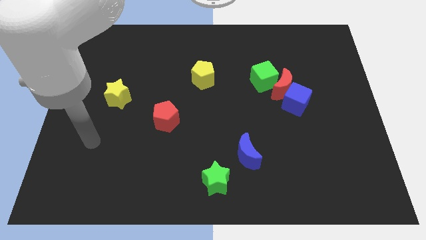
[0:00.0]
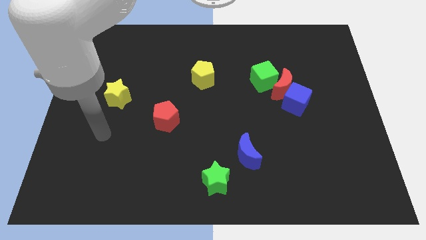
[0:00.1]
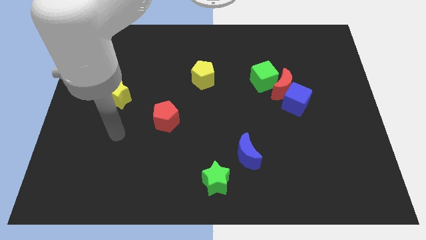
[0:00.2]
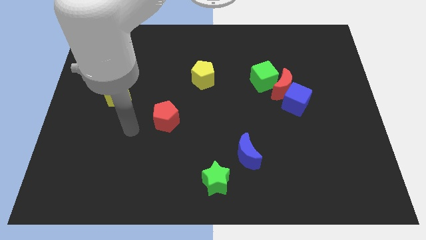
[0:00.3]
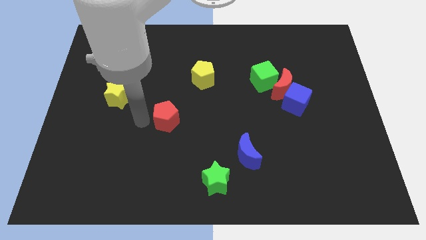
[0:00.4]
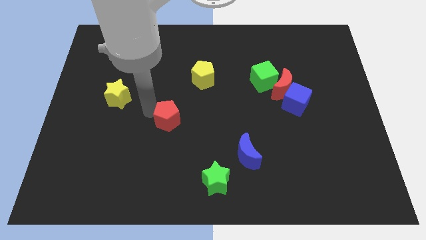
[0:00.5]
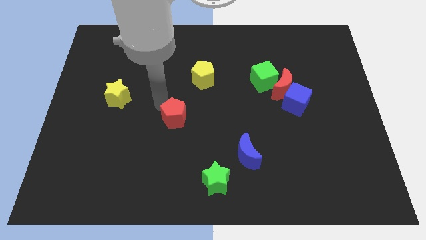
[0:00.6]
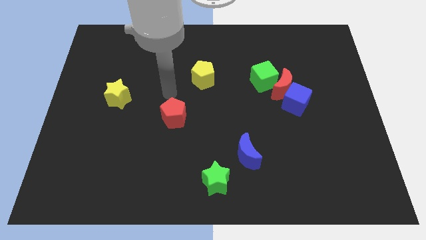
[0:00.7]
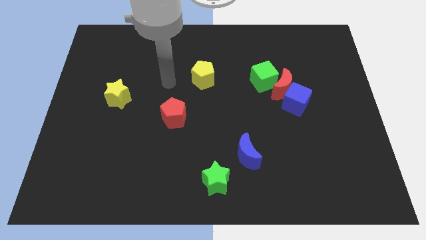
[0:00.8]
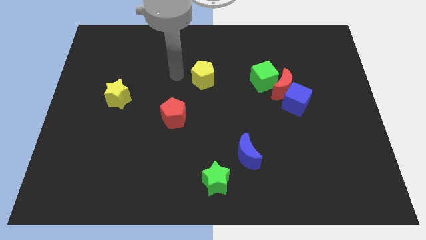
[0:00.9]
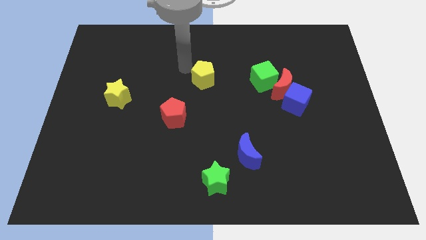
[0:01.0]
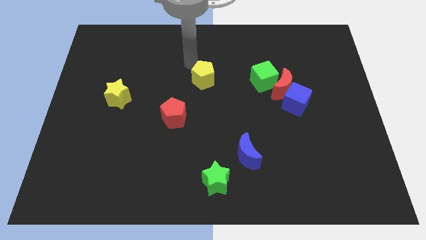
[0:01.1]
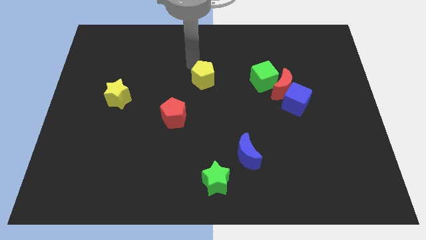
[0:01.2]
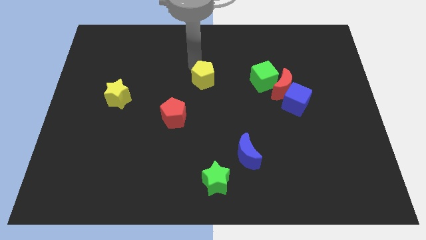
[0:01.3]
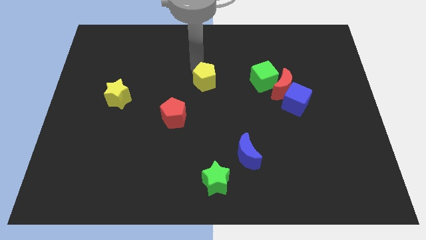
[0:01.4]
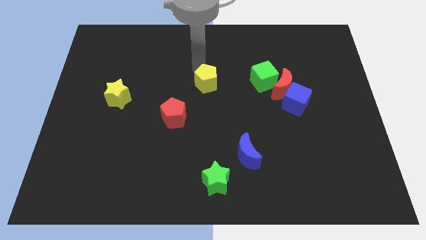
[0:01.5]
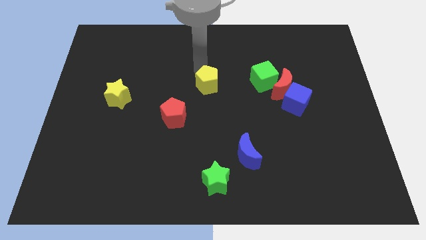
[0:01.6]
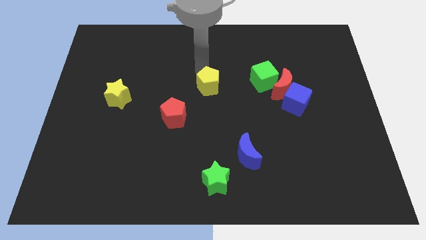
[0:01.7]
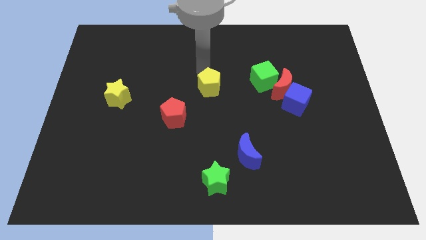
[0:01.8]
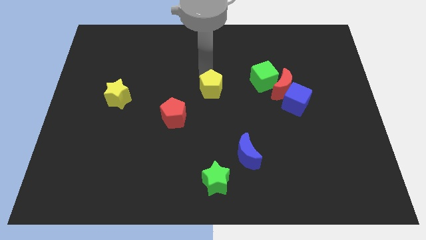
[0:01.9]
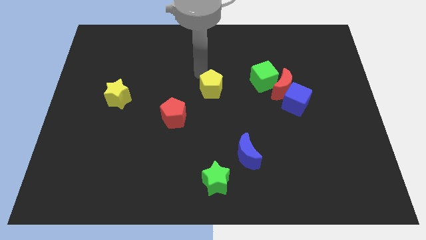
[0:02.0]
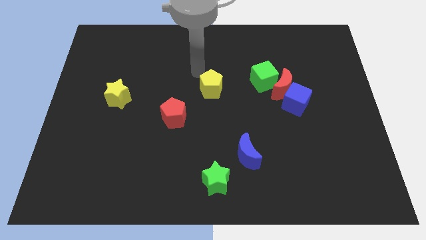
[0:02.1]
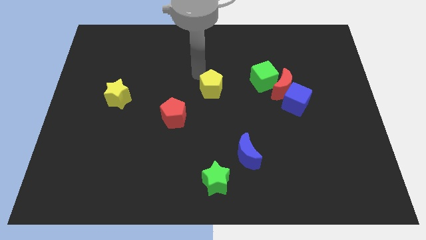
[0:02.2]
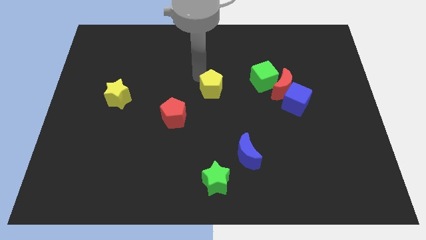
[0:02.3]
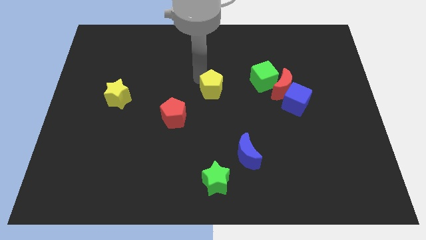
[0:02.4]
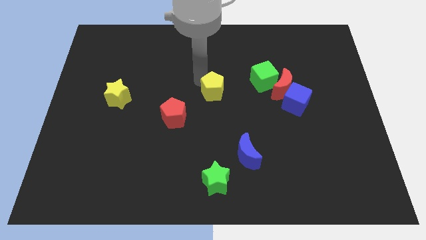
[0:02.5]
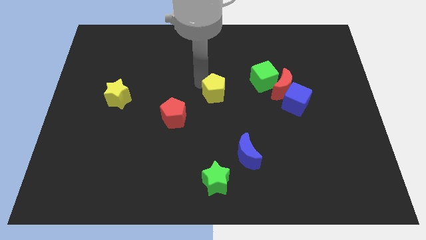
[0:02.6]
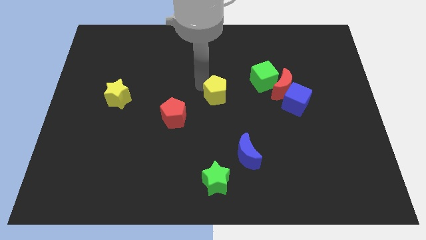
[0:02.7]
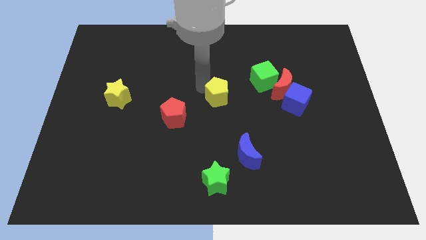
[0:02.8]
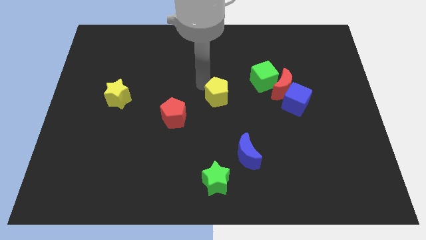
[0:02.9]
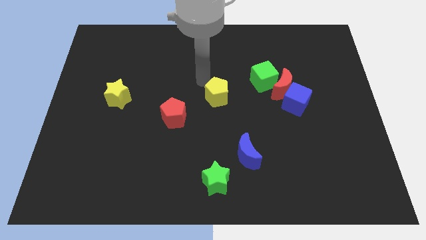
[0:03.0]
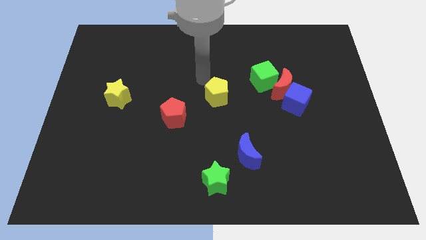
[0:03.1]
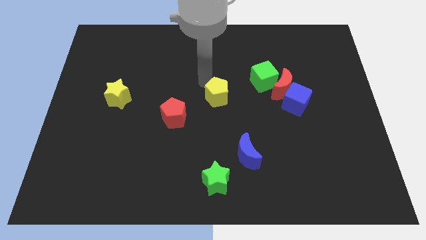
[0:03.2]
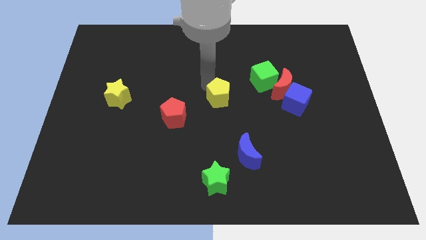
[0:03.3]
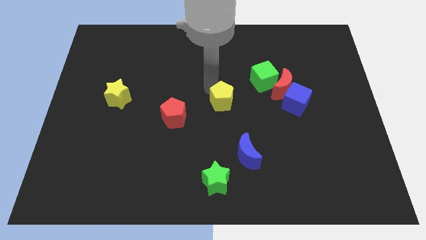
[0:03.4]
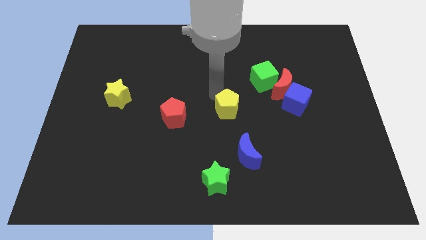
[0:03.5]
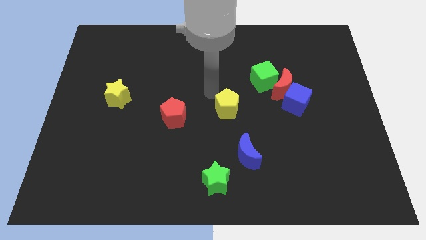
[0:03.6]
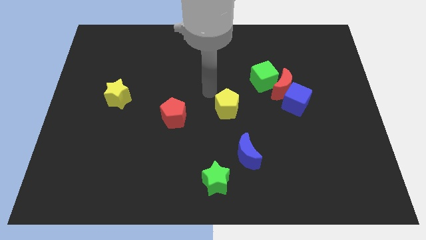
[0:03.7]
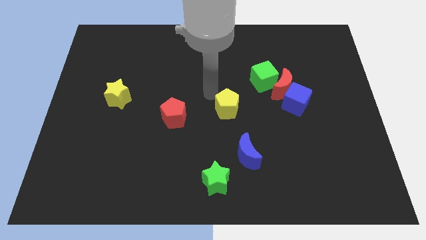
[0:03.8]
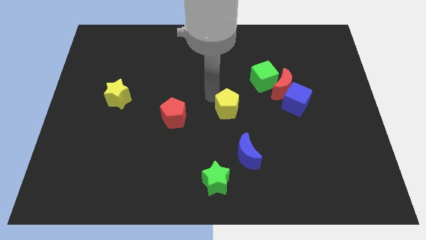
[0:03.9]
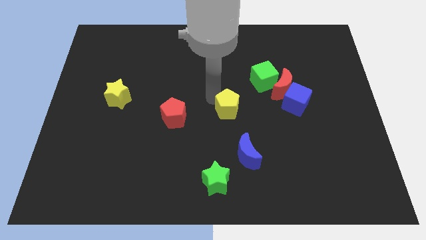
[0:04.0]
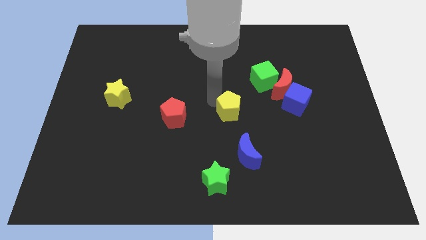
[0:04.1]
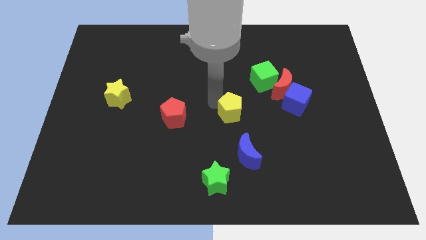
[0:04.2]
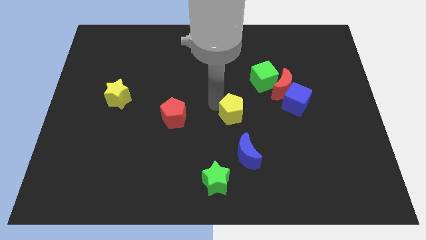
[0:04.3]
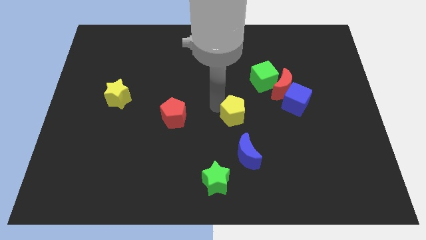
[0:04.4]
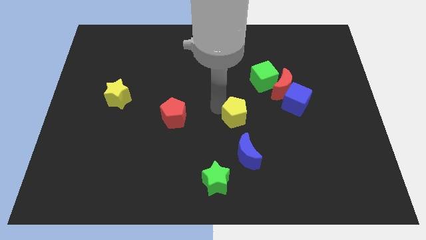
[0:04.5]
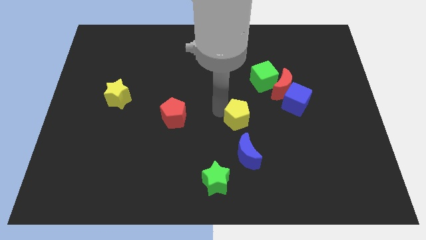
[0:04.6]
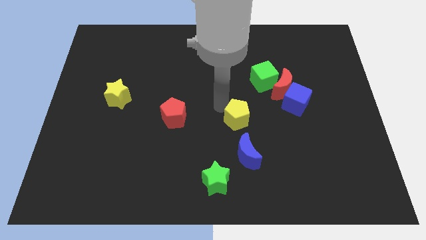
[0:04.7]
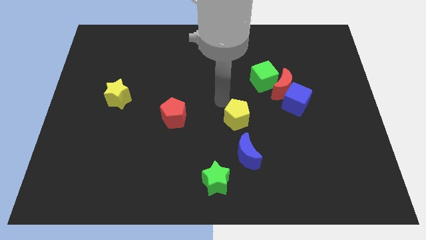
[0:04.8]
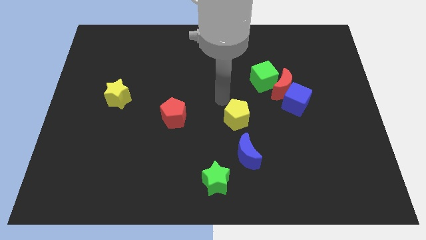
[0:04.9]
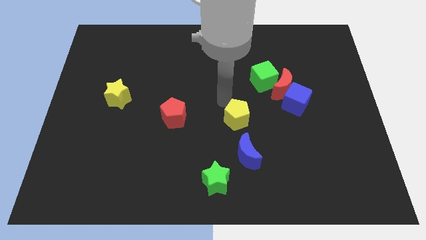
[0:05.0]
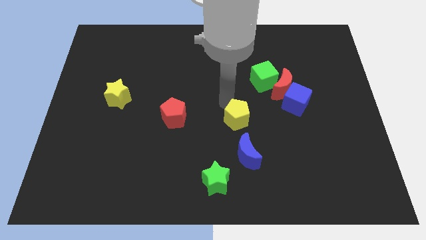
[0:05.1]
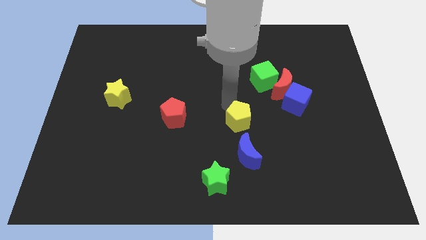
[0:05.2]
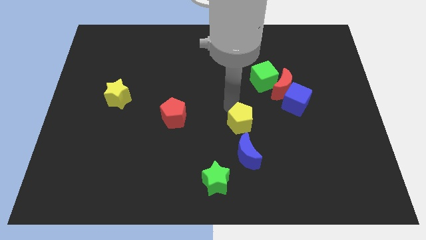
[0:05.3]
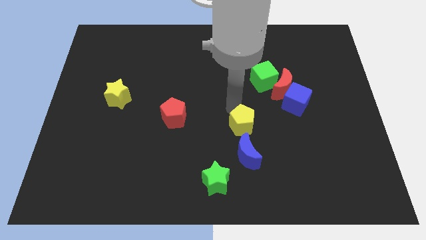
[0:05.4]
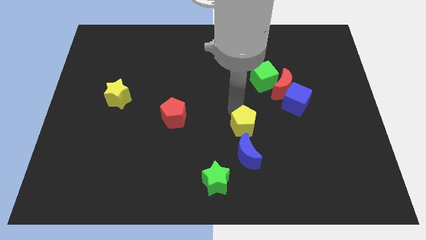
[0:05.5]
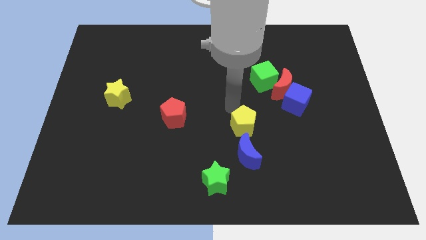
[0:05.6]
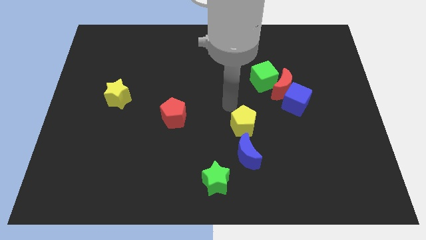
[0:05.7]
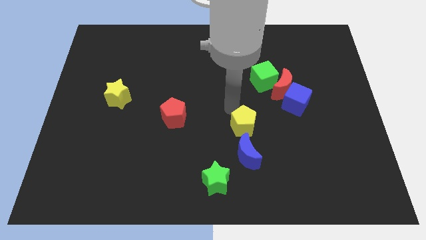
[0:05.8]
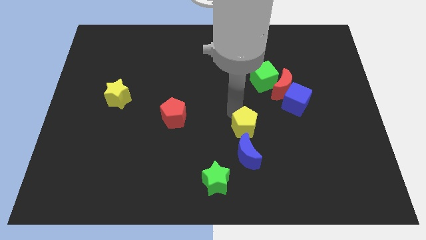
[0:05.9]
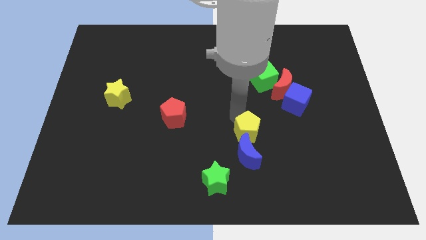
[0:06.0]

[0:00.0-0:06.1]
put the yellow pentagon to the blue moon

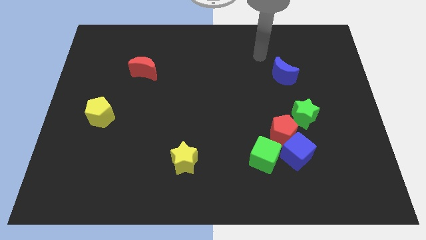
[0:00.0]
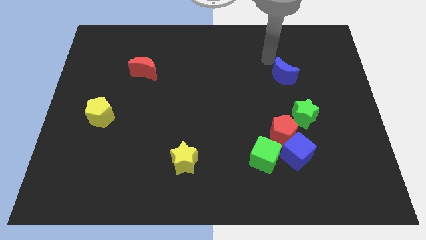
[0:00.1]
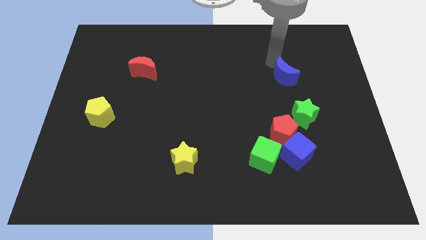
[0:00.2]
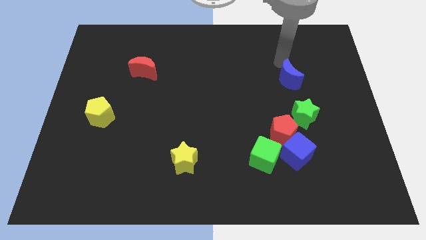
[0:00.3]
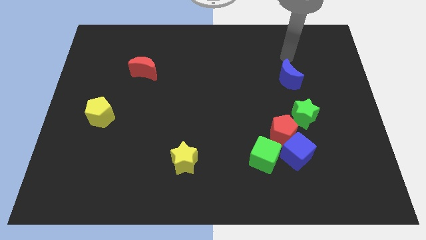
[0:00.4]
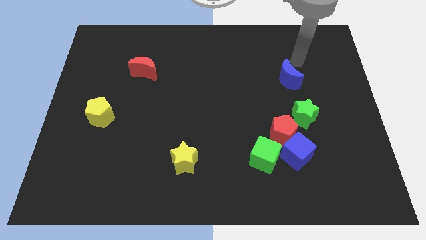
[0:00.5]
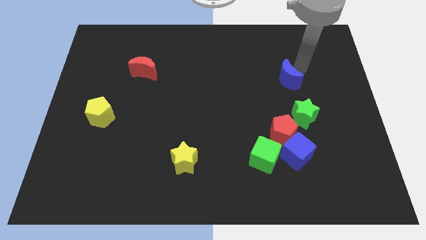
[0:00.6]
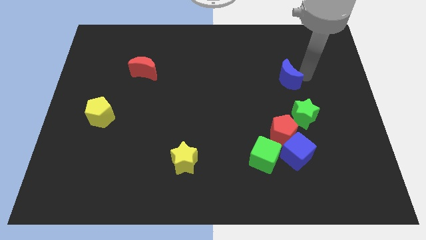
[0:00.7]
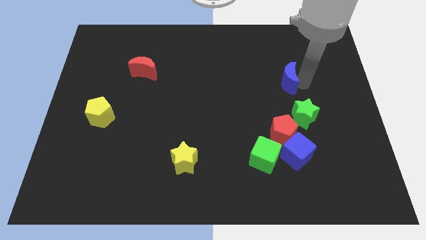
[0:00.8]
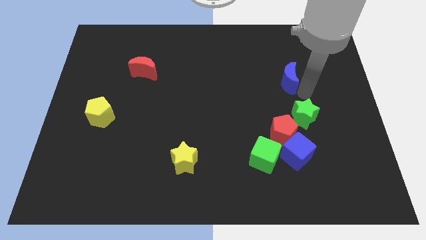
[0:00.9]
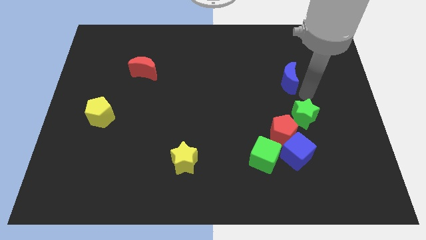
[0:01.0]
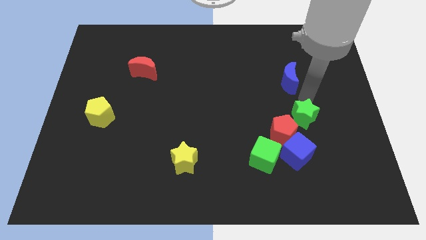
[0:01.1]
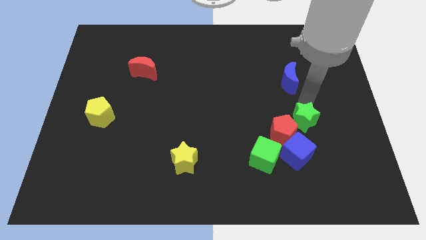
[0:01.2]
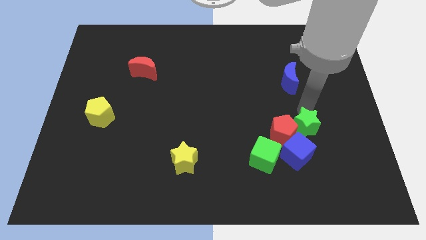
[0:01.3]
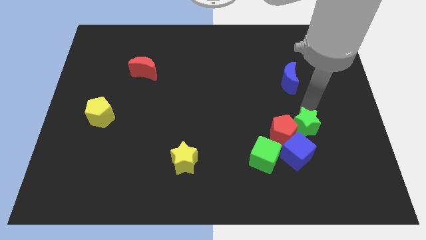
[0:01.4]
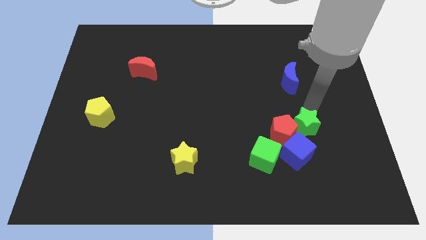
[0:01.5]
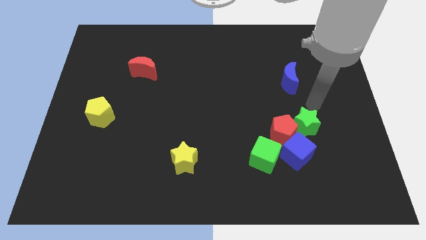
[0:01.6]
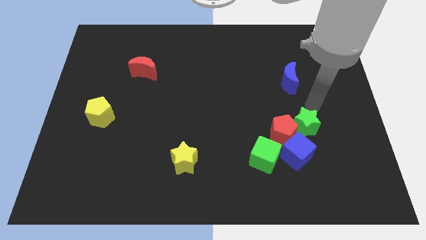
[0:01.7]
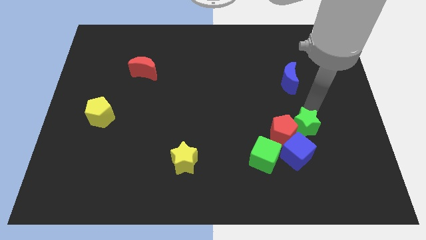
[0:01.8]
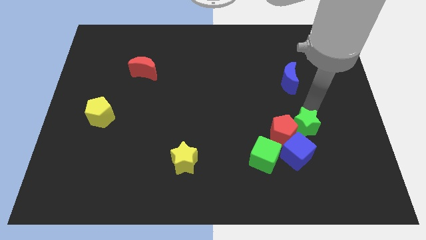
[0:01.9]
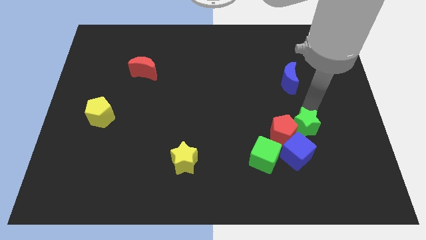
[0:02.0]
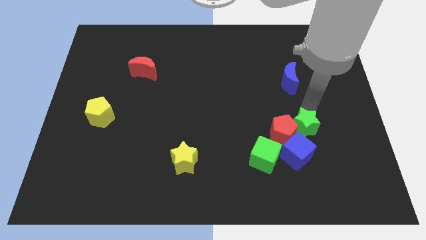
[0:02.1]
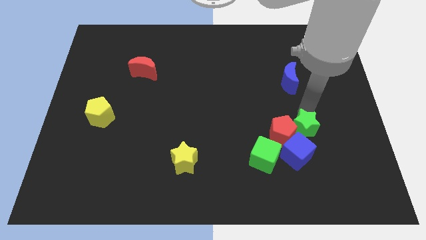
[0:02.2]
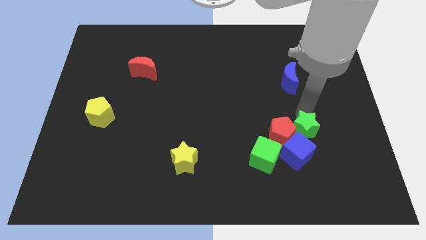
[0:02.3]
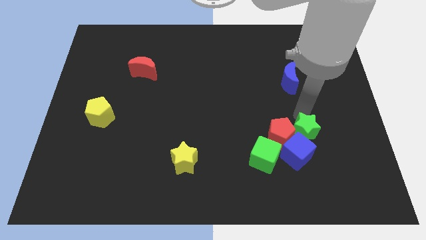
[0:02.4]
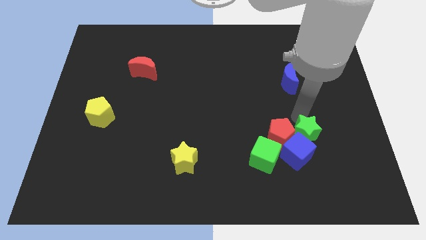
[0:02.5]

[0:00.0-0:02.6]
move the green star towards the blue cube
